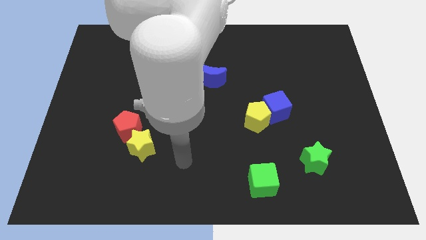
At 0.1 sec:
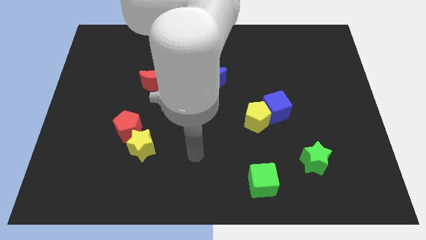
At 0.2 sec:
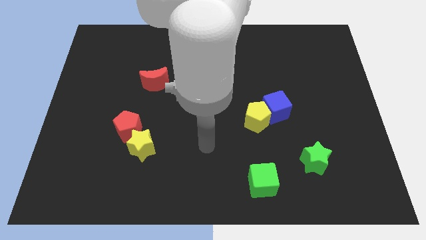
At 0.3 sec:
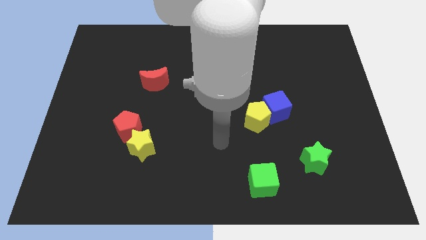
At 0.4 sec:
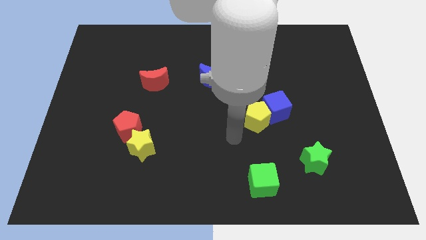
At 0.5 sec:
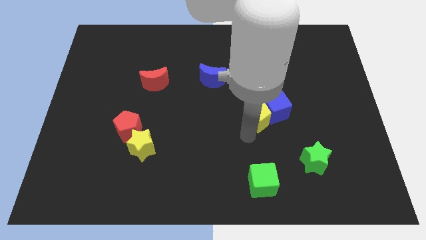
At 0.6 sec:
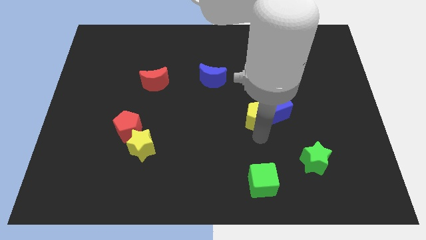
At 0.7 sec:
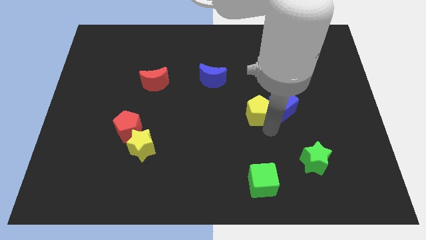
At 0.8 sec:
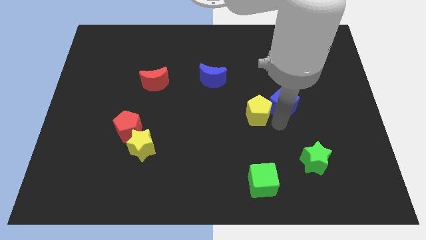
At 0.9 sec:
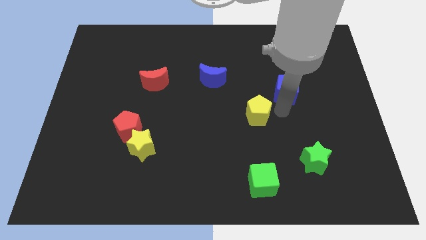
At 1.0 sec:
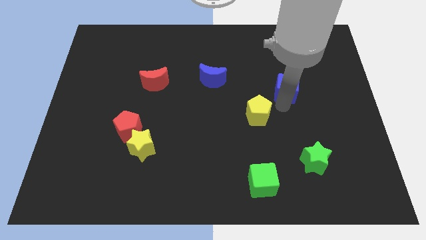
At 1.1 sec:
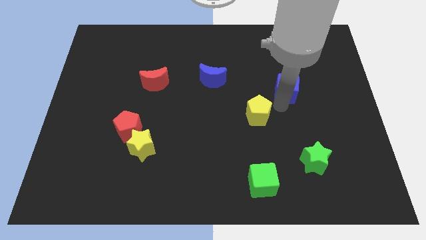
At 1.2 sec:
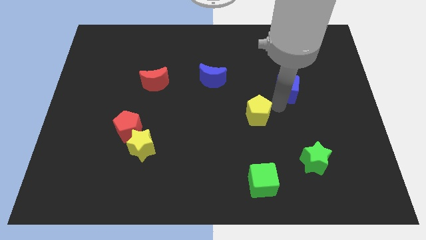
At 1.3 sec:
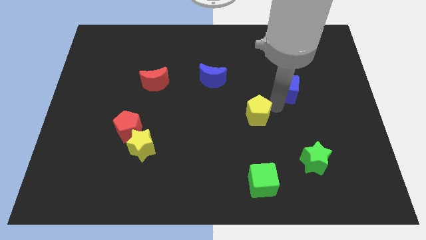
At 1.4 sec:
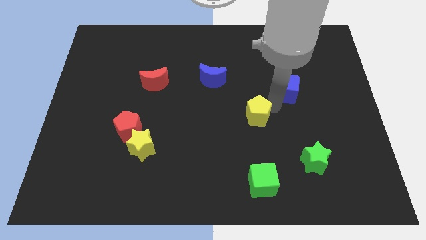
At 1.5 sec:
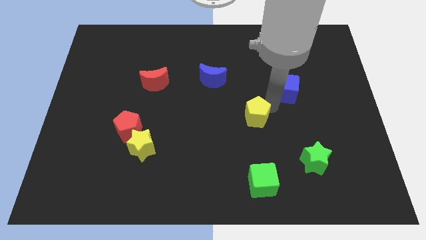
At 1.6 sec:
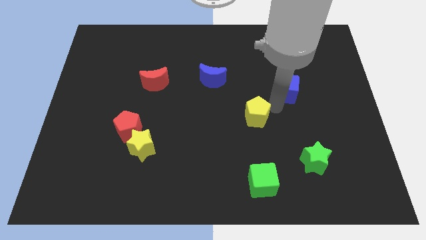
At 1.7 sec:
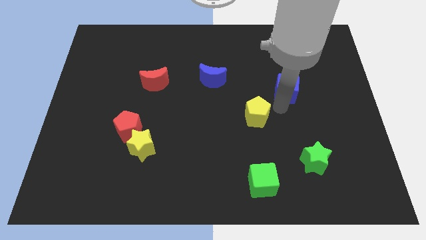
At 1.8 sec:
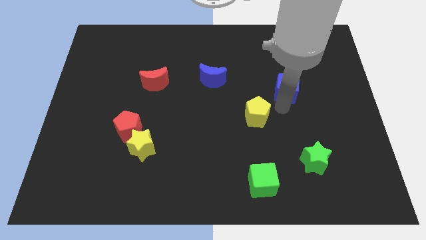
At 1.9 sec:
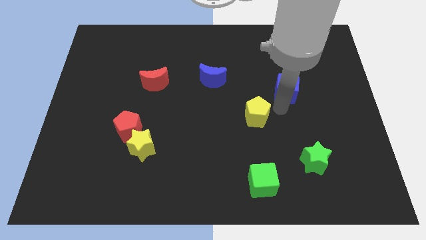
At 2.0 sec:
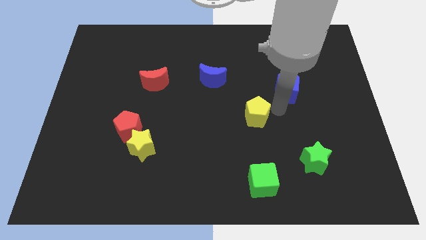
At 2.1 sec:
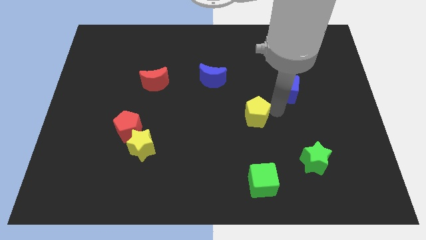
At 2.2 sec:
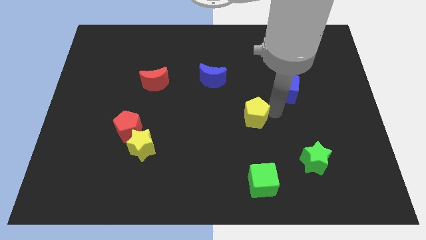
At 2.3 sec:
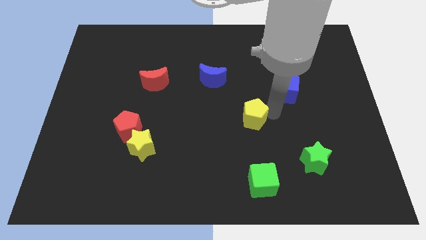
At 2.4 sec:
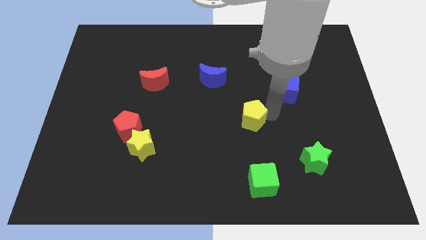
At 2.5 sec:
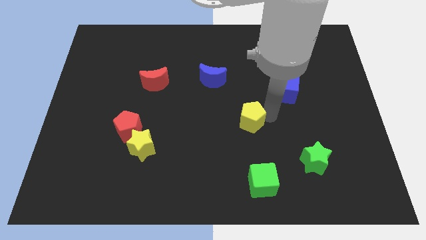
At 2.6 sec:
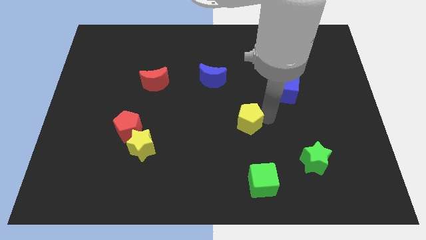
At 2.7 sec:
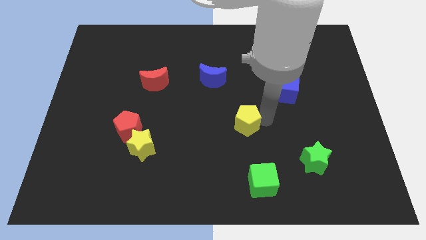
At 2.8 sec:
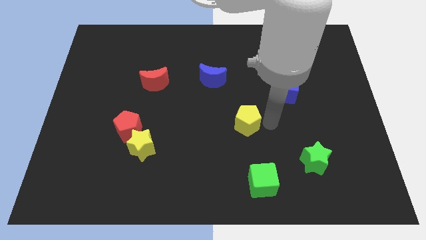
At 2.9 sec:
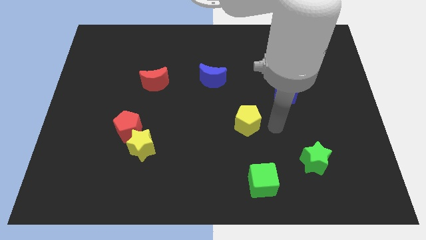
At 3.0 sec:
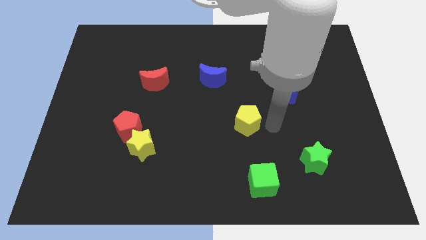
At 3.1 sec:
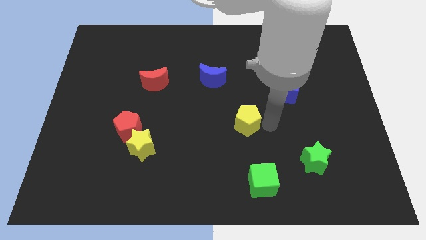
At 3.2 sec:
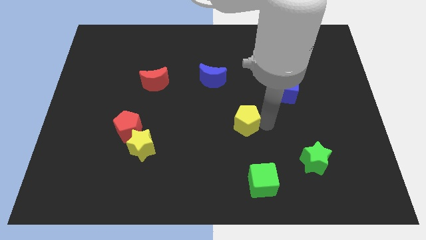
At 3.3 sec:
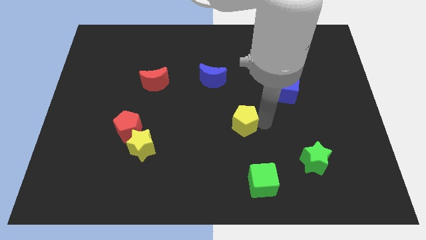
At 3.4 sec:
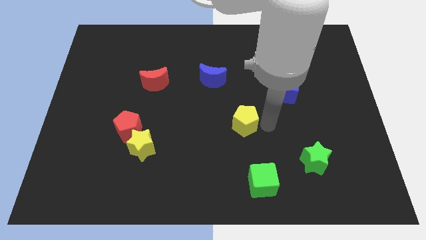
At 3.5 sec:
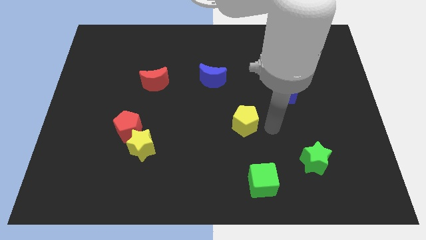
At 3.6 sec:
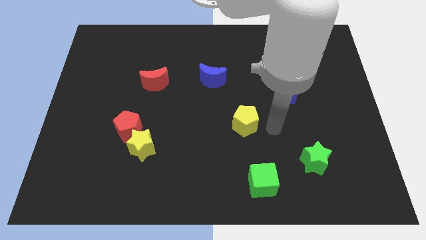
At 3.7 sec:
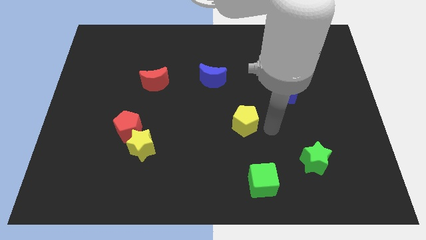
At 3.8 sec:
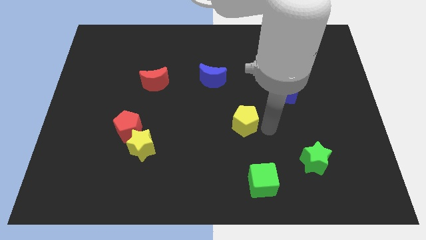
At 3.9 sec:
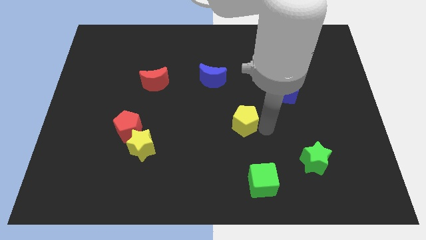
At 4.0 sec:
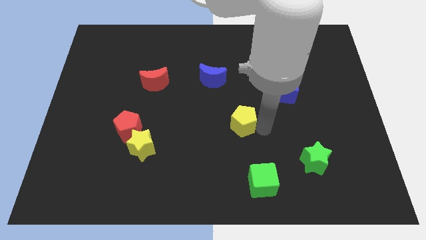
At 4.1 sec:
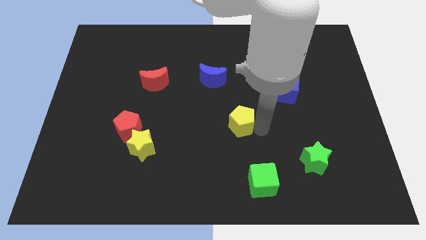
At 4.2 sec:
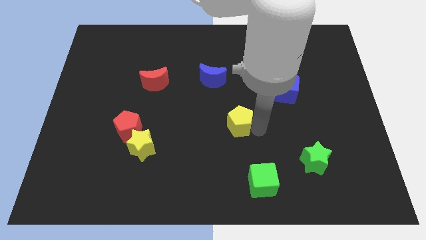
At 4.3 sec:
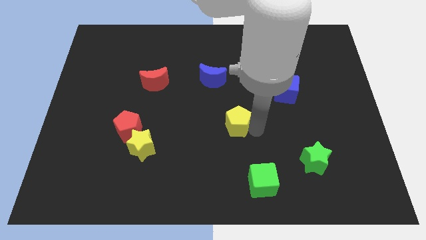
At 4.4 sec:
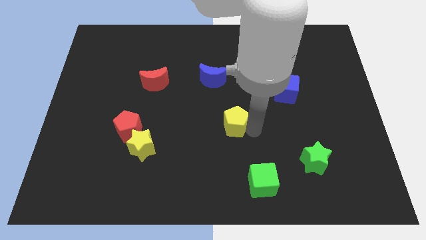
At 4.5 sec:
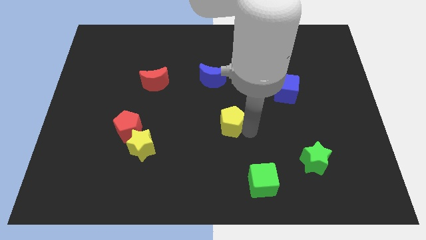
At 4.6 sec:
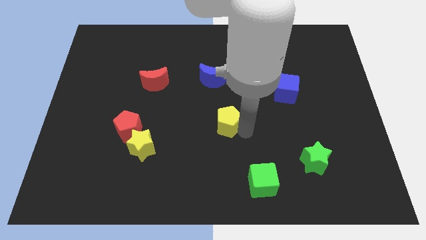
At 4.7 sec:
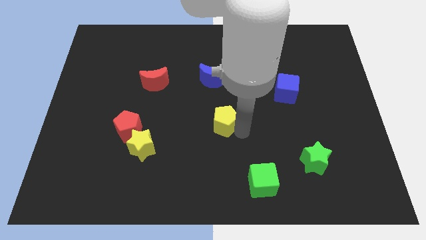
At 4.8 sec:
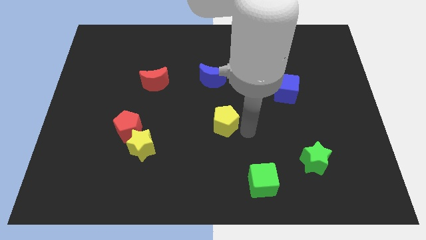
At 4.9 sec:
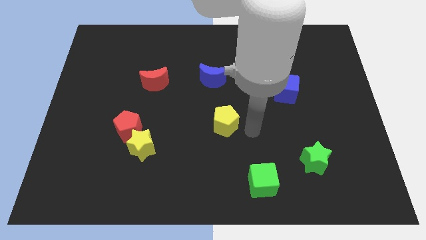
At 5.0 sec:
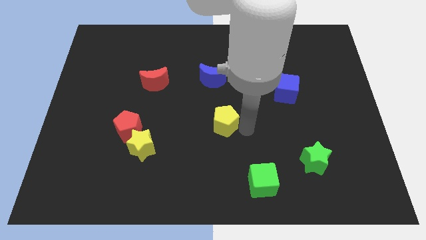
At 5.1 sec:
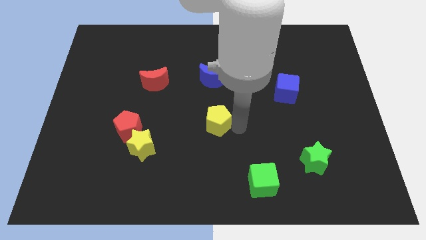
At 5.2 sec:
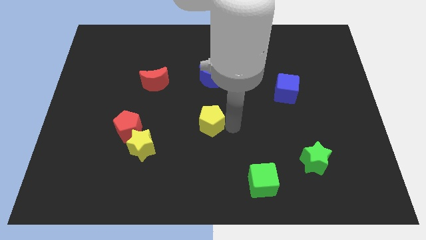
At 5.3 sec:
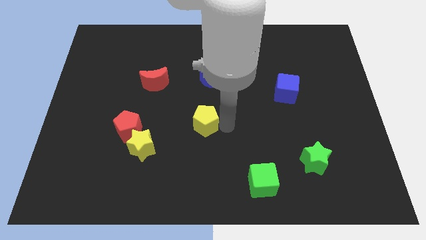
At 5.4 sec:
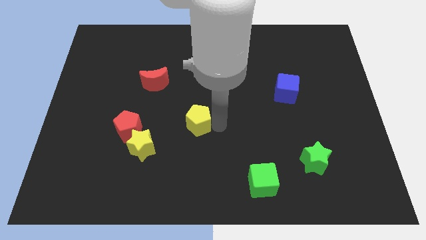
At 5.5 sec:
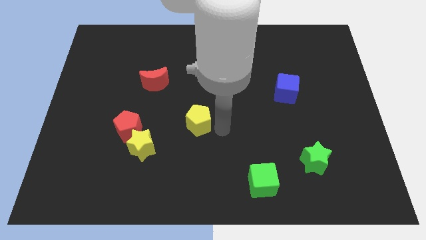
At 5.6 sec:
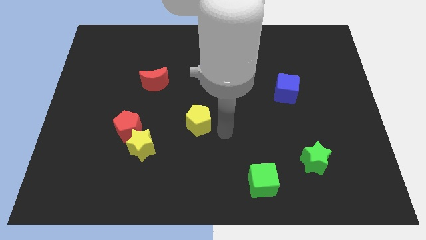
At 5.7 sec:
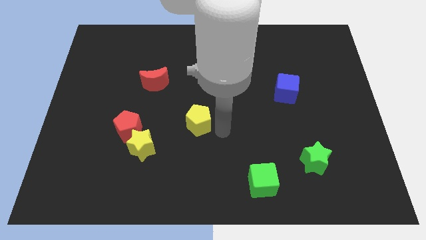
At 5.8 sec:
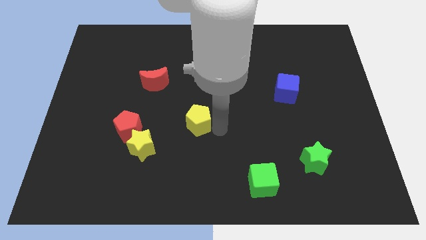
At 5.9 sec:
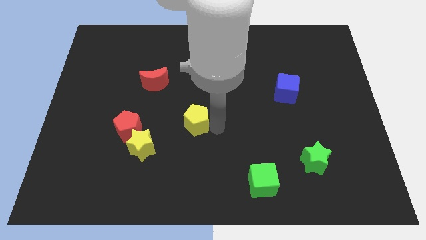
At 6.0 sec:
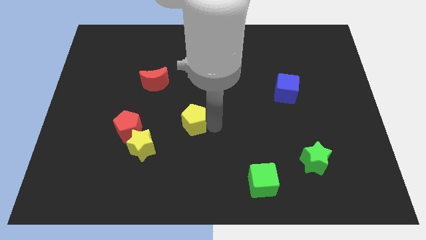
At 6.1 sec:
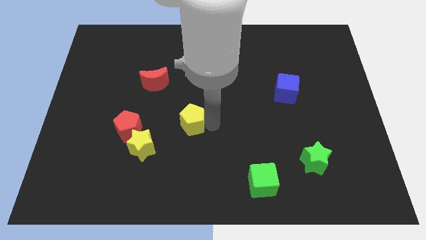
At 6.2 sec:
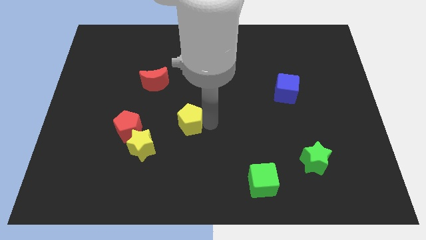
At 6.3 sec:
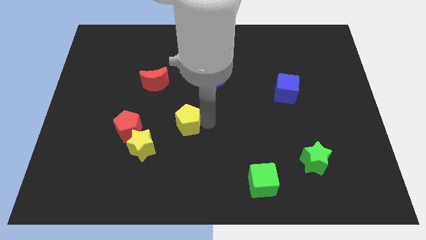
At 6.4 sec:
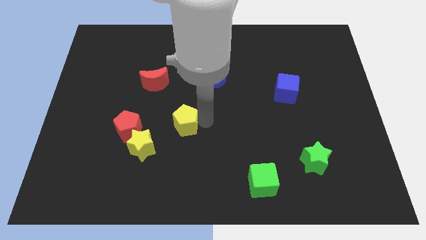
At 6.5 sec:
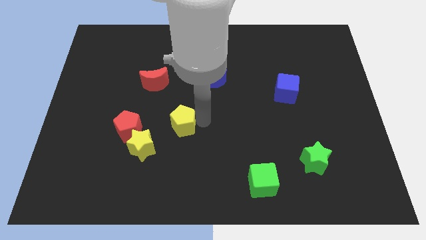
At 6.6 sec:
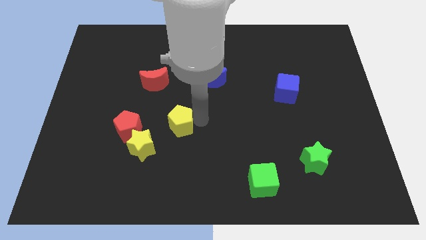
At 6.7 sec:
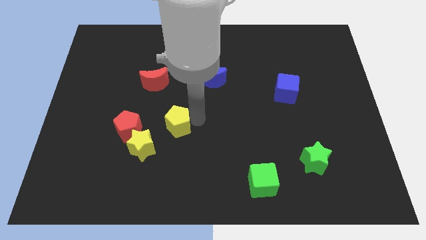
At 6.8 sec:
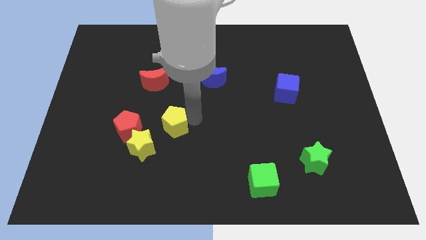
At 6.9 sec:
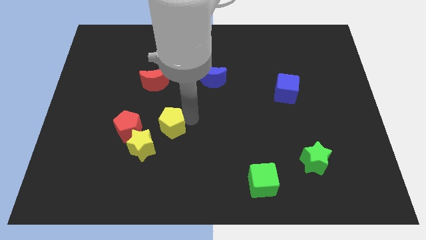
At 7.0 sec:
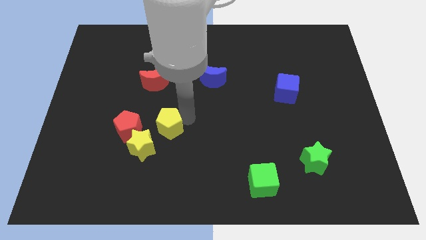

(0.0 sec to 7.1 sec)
move the yellow pentagon left

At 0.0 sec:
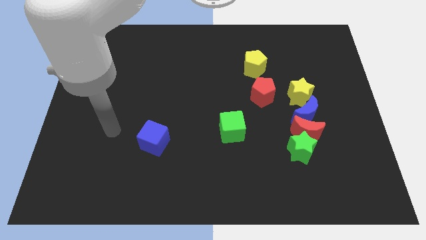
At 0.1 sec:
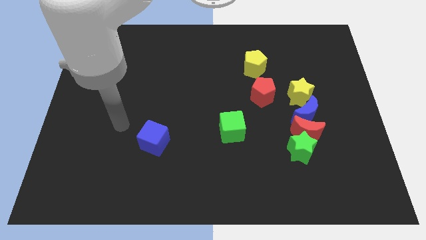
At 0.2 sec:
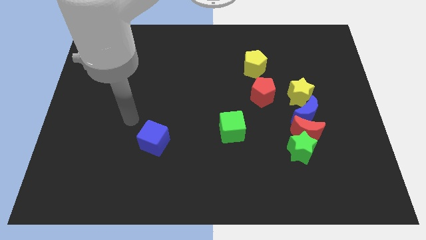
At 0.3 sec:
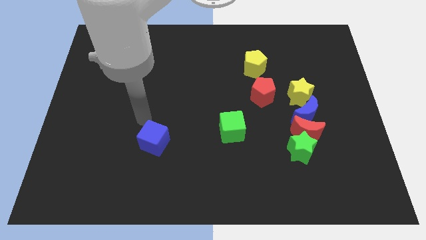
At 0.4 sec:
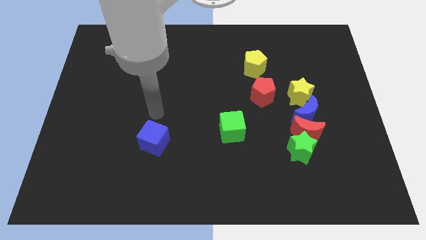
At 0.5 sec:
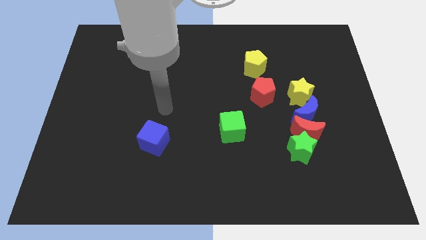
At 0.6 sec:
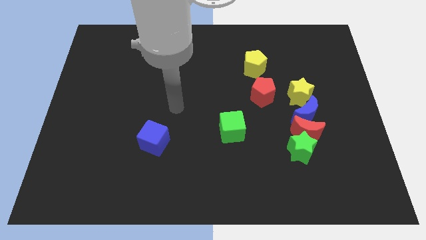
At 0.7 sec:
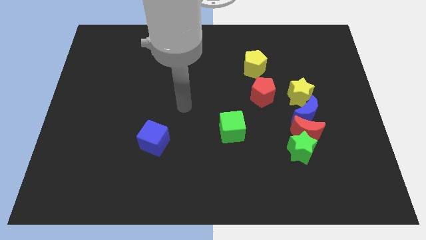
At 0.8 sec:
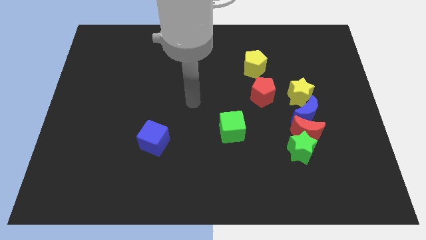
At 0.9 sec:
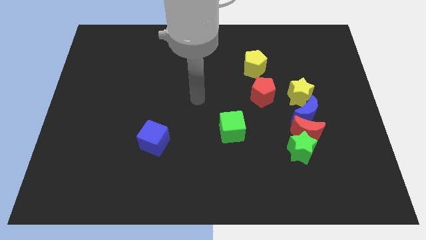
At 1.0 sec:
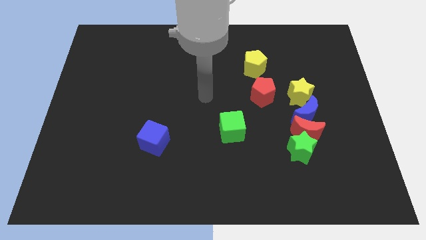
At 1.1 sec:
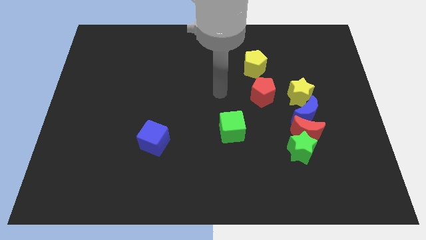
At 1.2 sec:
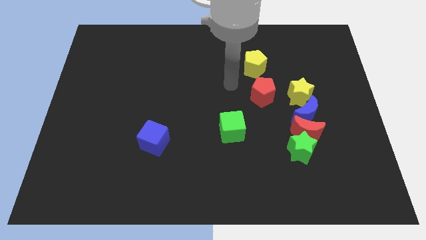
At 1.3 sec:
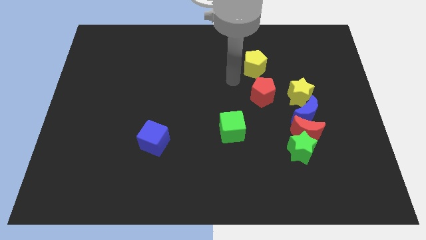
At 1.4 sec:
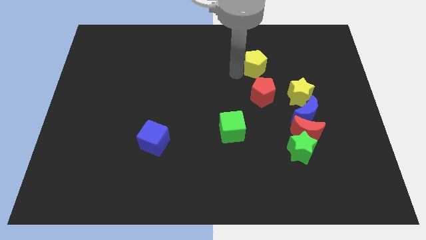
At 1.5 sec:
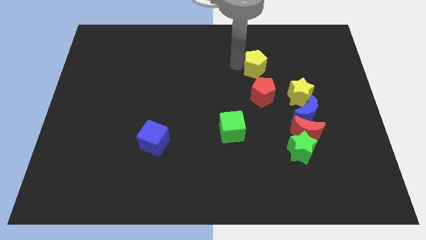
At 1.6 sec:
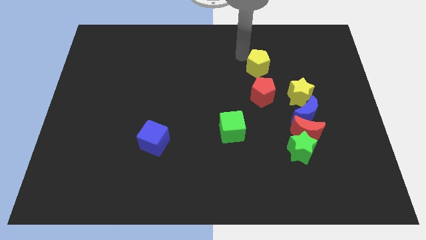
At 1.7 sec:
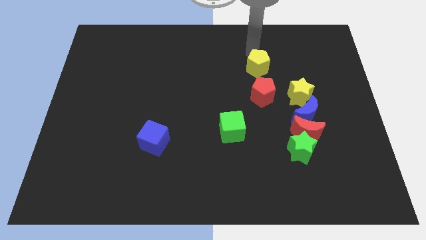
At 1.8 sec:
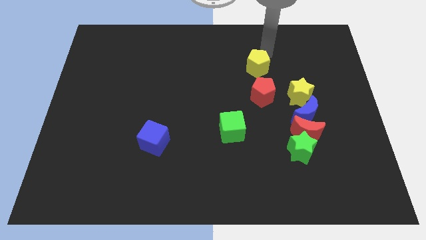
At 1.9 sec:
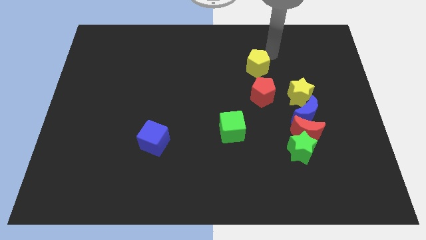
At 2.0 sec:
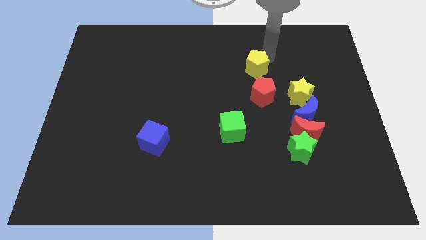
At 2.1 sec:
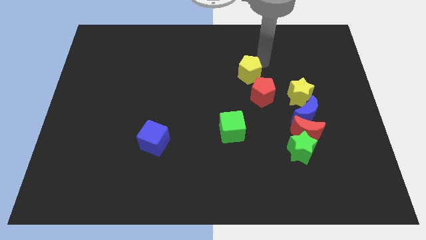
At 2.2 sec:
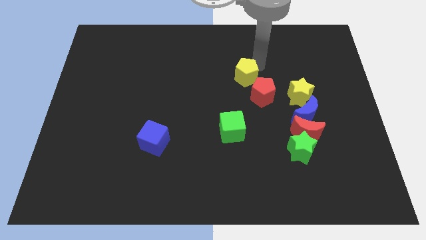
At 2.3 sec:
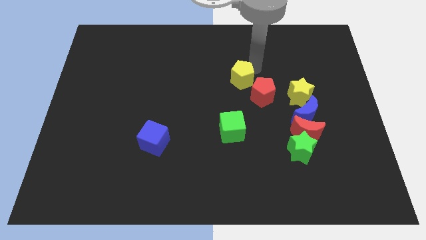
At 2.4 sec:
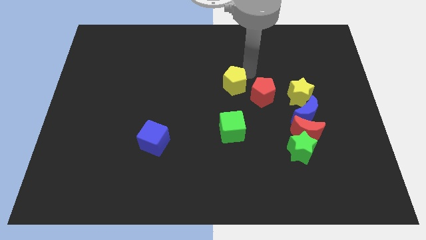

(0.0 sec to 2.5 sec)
move the yellow pentagon diagonally down and to the left a little
